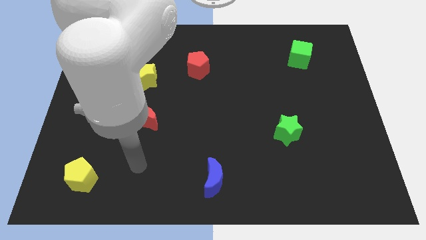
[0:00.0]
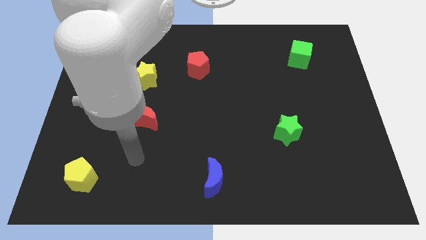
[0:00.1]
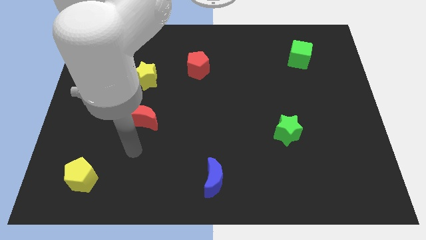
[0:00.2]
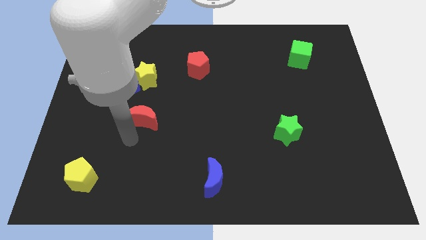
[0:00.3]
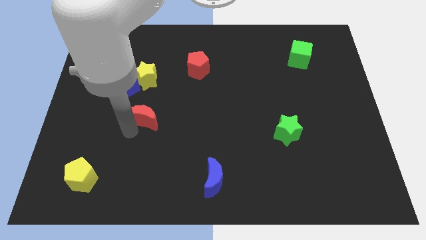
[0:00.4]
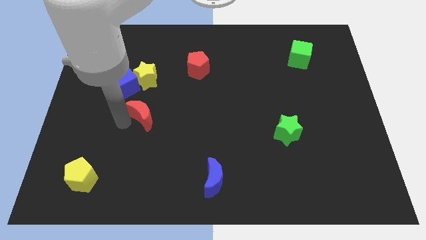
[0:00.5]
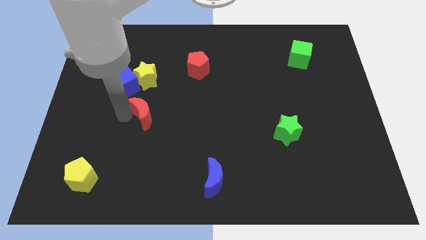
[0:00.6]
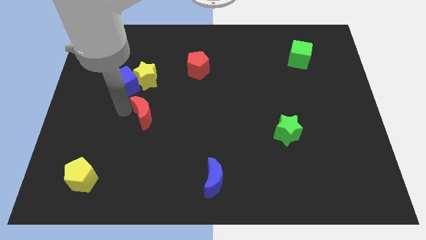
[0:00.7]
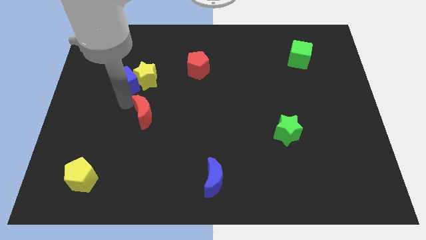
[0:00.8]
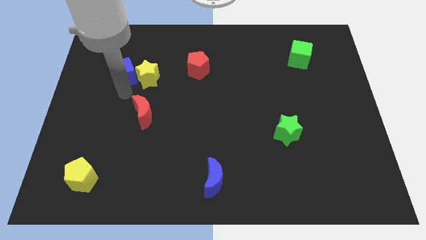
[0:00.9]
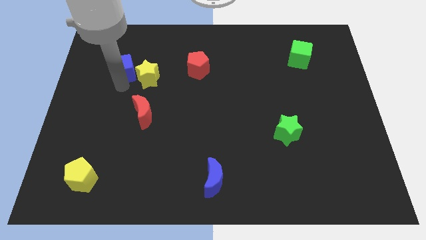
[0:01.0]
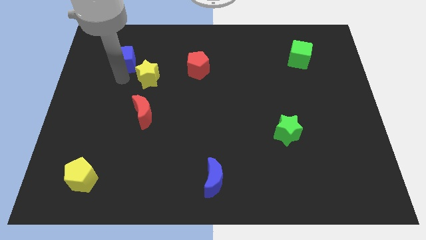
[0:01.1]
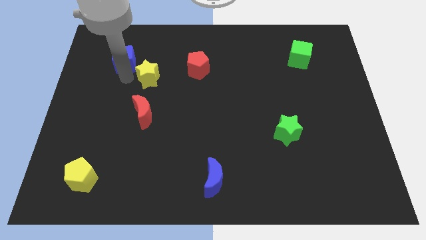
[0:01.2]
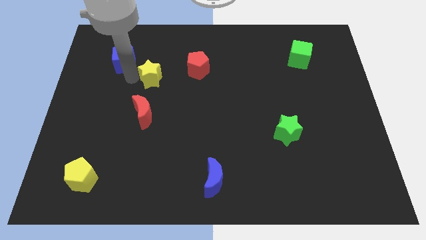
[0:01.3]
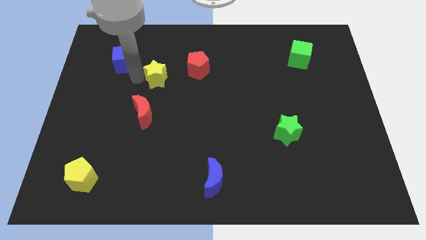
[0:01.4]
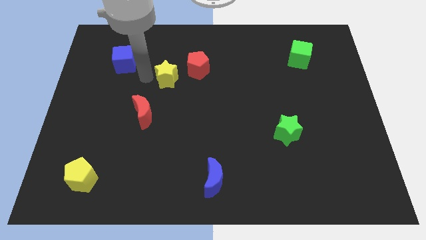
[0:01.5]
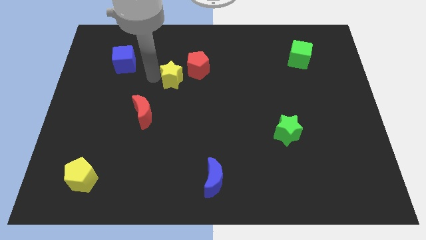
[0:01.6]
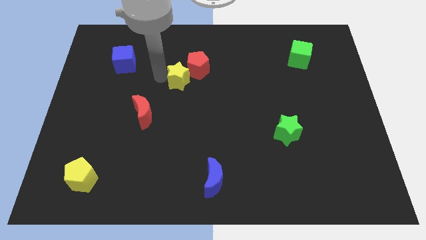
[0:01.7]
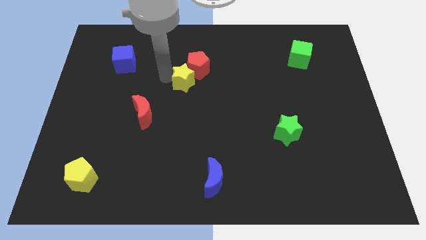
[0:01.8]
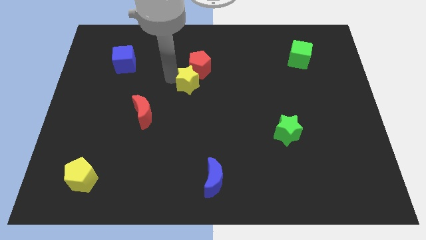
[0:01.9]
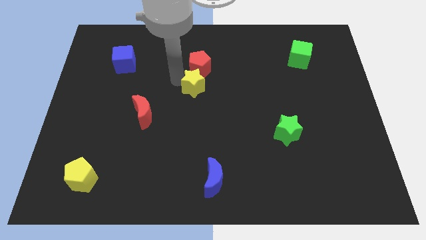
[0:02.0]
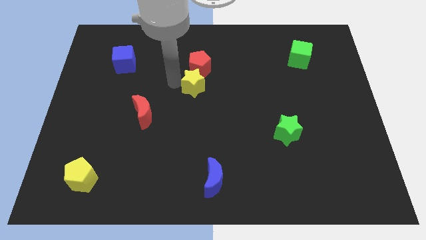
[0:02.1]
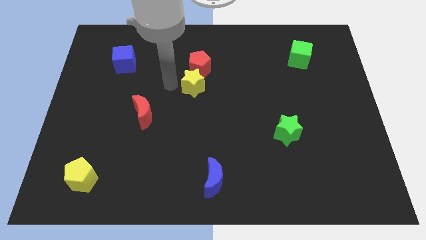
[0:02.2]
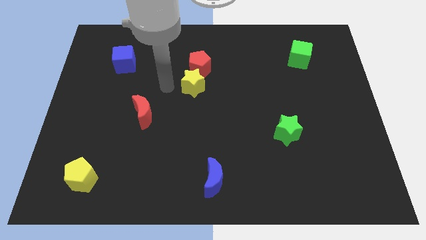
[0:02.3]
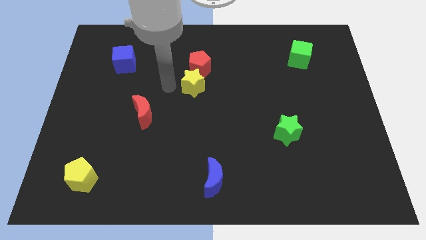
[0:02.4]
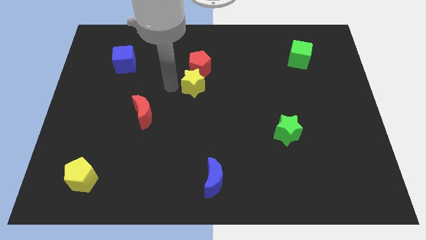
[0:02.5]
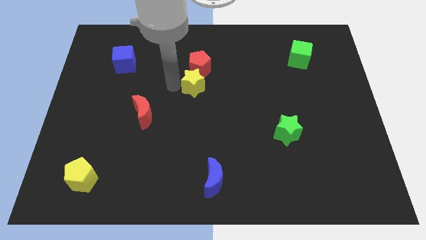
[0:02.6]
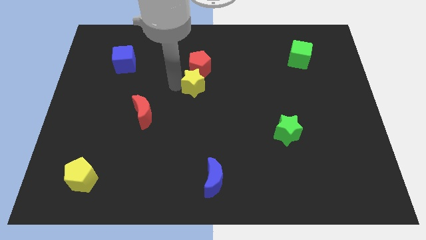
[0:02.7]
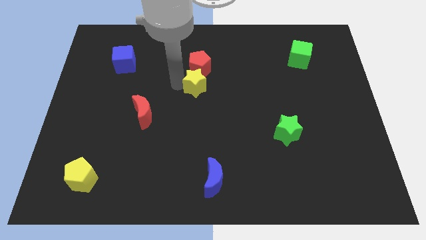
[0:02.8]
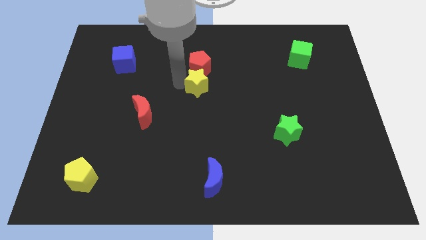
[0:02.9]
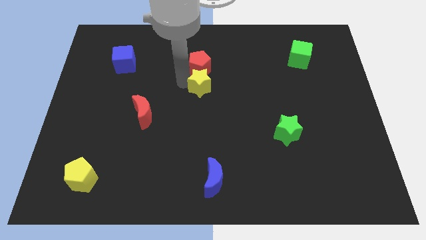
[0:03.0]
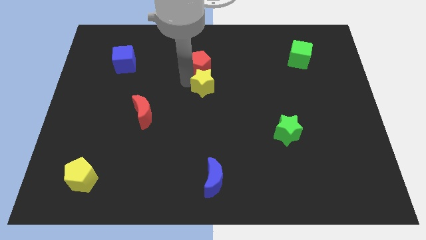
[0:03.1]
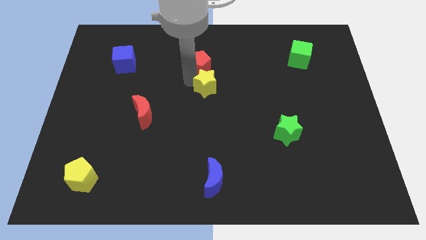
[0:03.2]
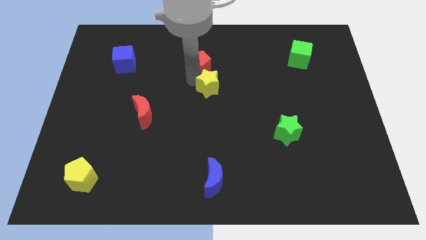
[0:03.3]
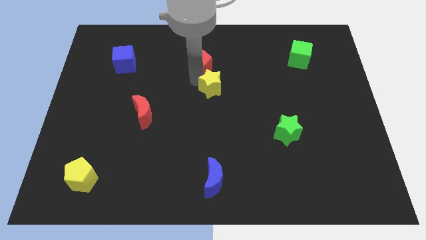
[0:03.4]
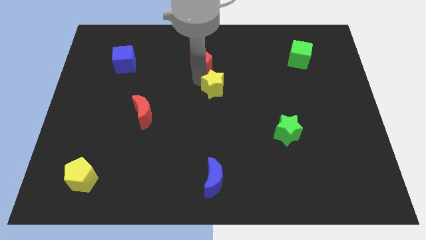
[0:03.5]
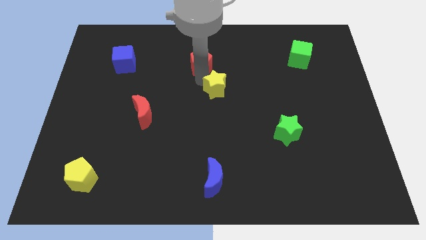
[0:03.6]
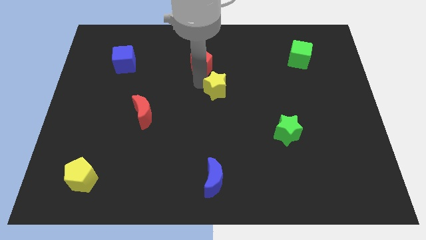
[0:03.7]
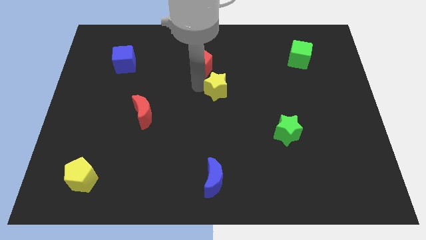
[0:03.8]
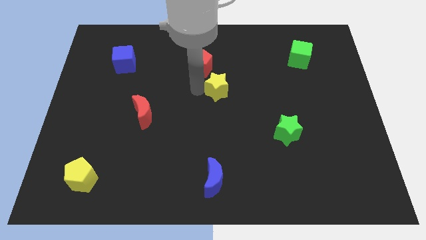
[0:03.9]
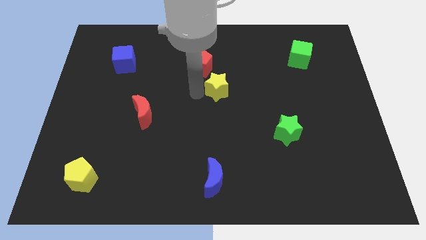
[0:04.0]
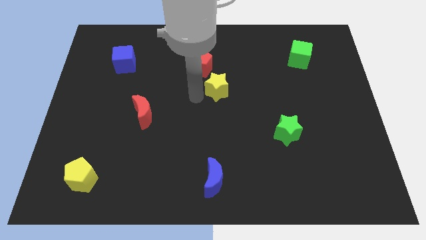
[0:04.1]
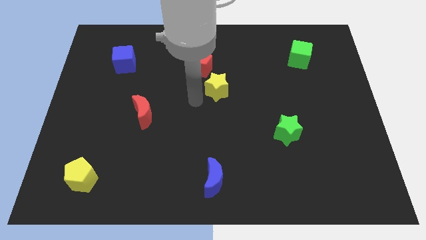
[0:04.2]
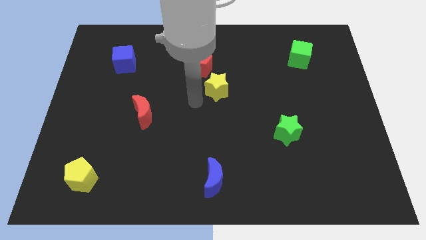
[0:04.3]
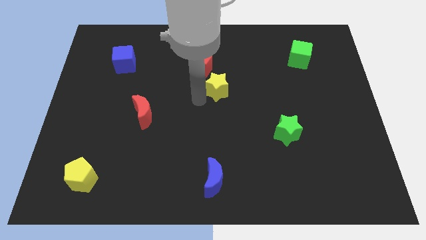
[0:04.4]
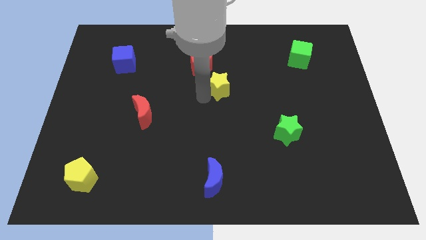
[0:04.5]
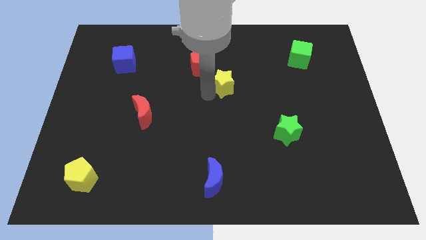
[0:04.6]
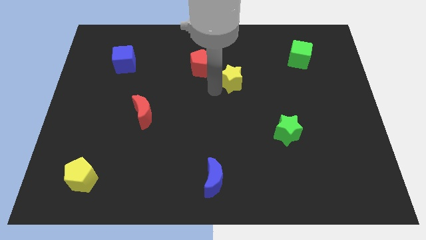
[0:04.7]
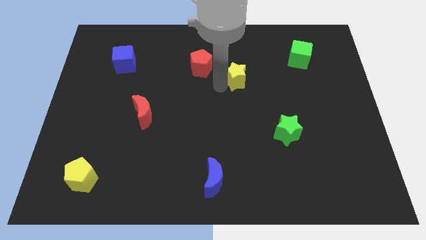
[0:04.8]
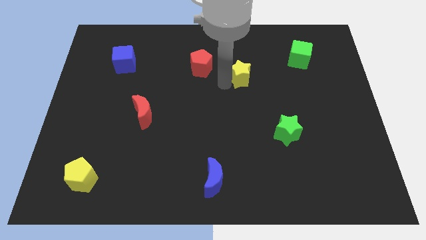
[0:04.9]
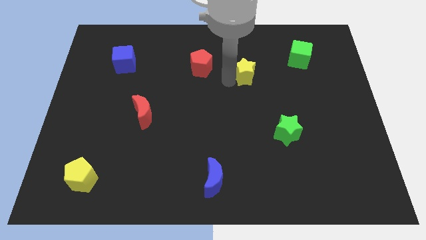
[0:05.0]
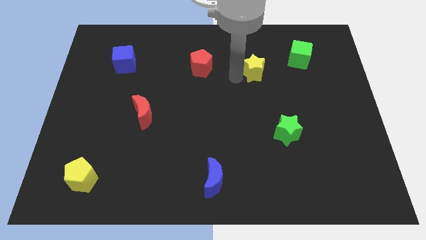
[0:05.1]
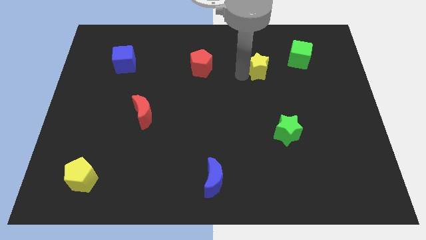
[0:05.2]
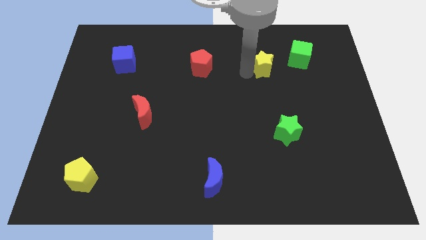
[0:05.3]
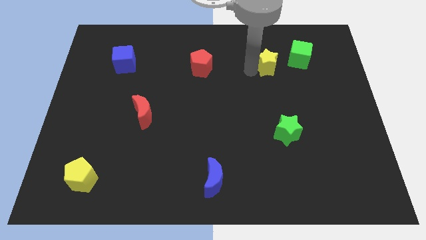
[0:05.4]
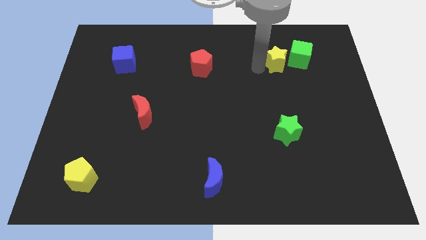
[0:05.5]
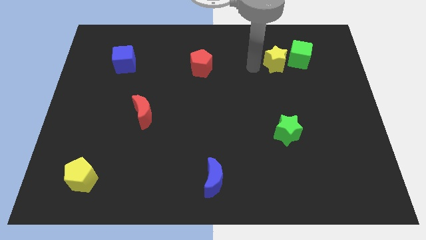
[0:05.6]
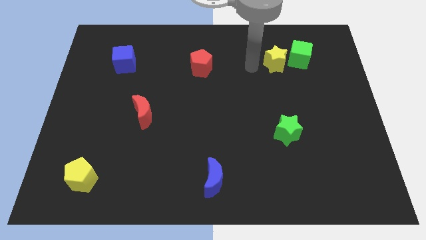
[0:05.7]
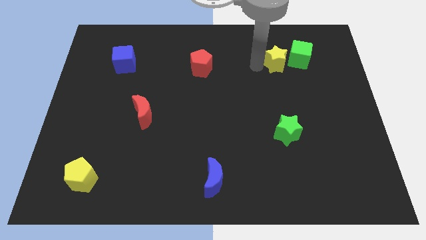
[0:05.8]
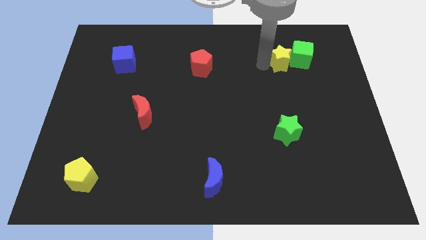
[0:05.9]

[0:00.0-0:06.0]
slide the yellow star towards the green cube

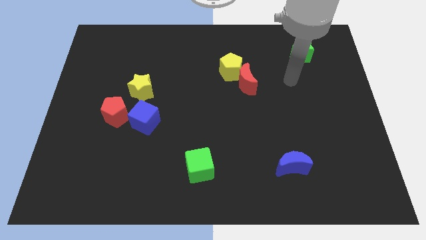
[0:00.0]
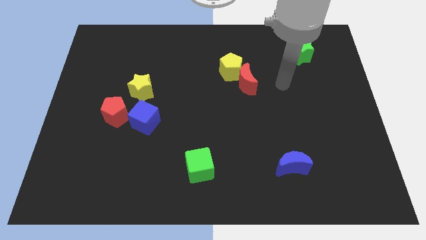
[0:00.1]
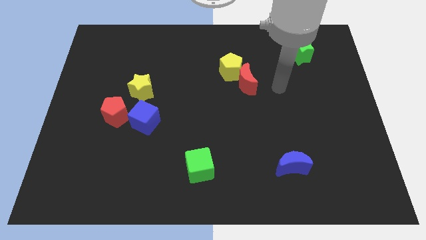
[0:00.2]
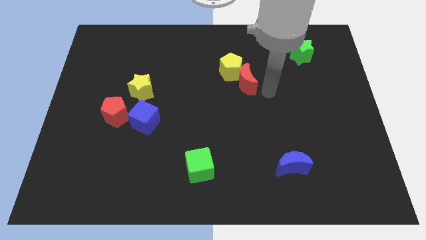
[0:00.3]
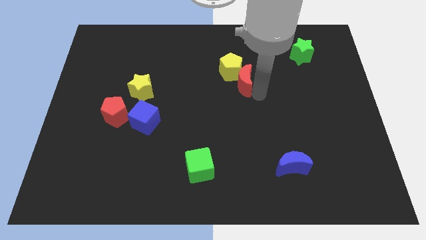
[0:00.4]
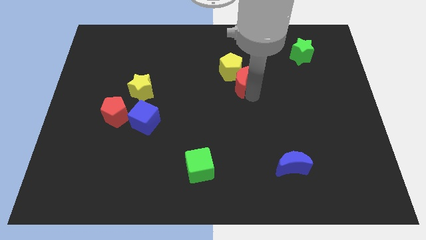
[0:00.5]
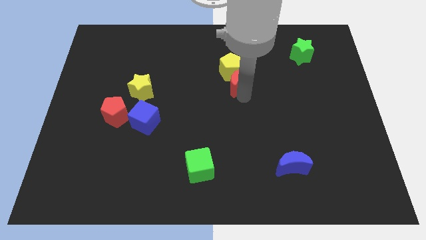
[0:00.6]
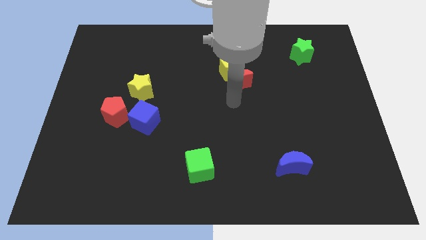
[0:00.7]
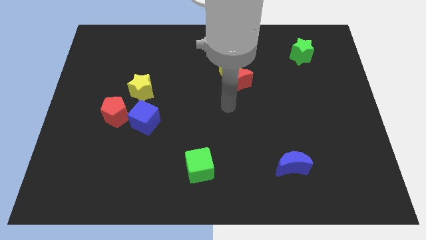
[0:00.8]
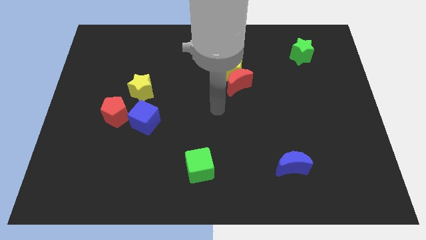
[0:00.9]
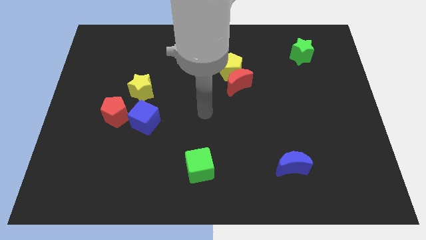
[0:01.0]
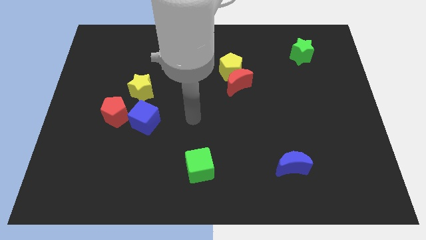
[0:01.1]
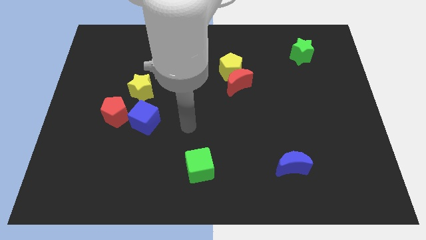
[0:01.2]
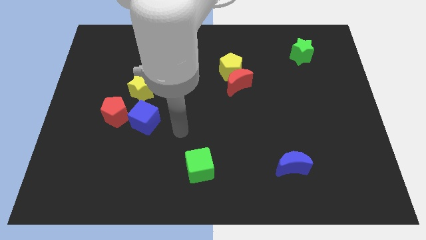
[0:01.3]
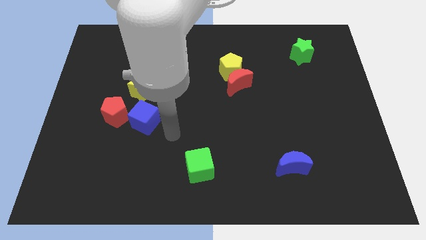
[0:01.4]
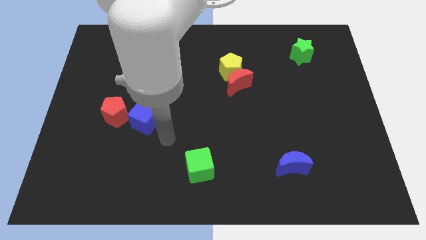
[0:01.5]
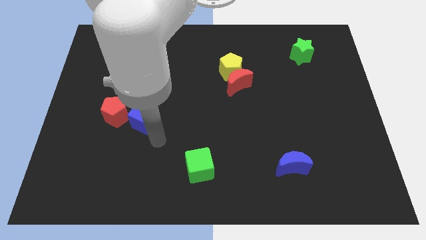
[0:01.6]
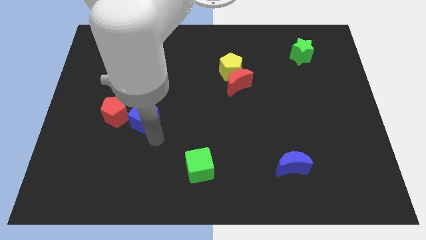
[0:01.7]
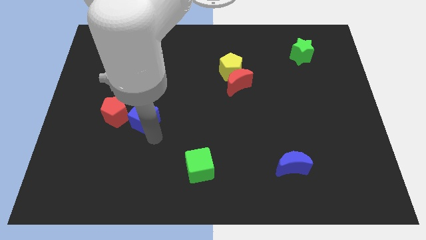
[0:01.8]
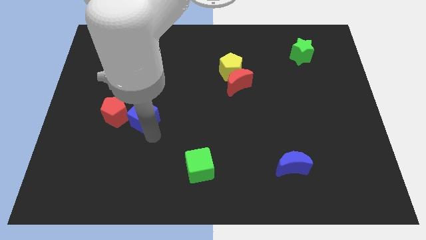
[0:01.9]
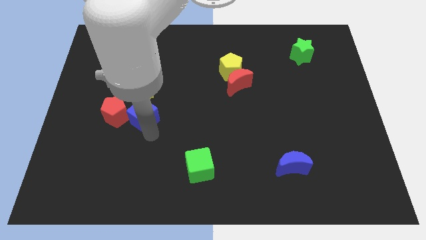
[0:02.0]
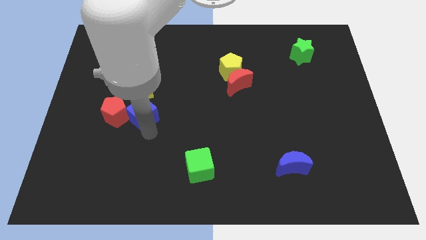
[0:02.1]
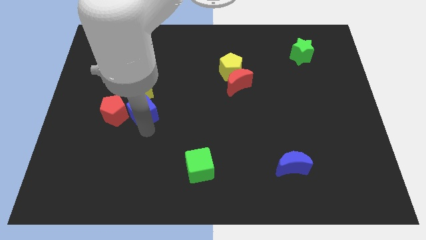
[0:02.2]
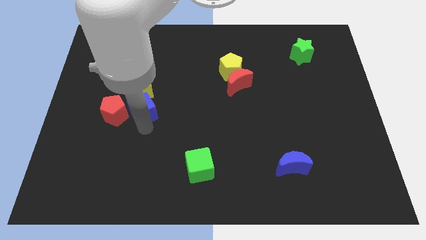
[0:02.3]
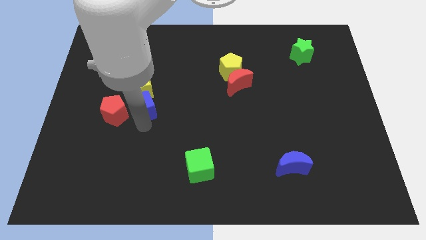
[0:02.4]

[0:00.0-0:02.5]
move the blue cube close to the yellow star
